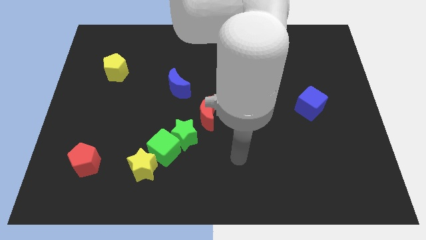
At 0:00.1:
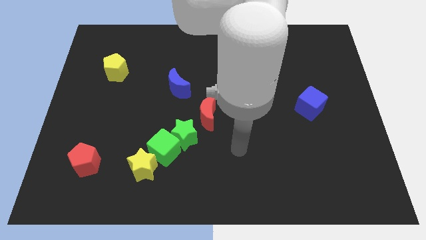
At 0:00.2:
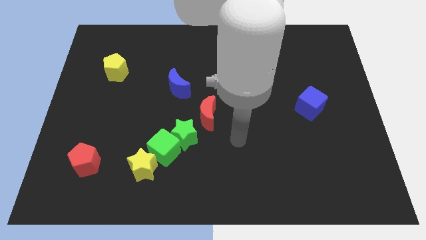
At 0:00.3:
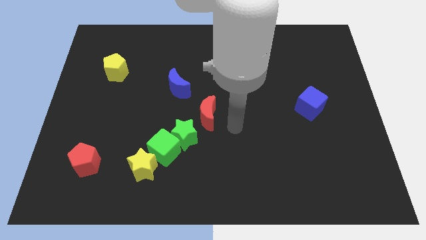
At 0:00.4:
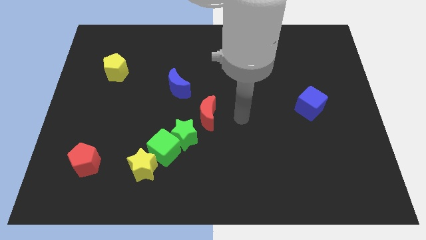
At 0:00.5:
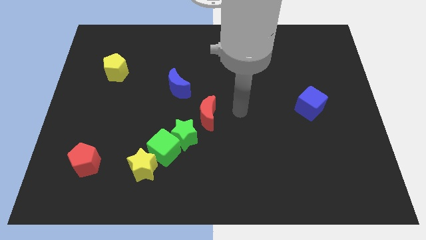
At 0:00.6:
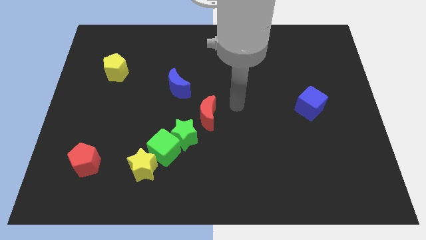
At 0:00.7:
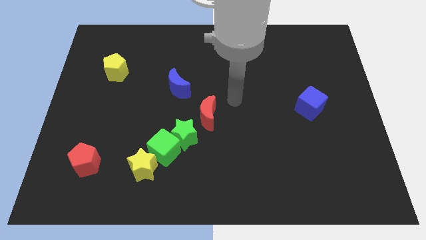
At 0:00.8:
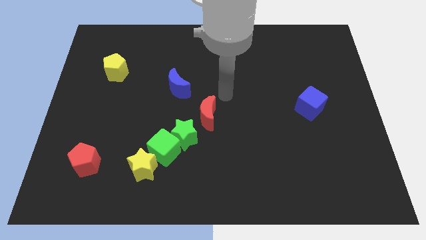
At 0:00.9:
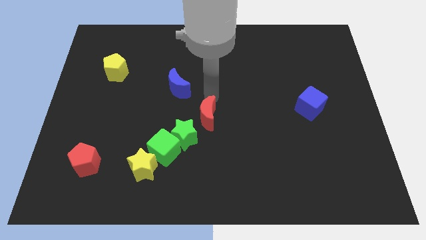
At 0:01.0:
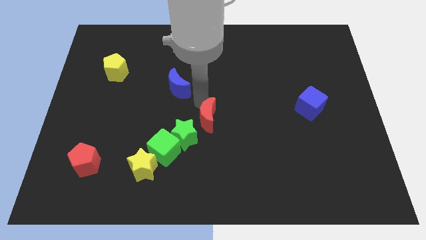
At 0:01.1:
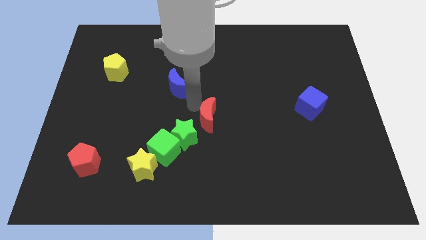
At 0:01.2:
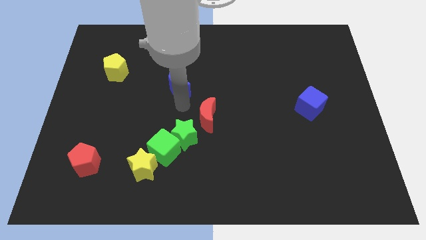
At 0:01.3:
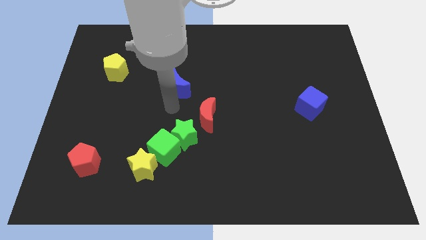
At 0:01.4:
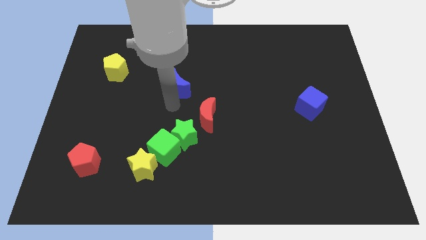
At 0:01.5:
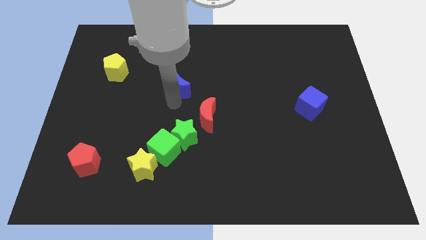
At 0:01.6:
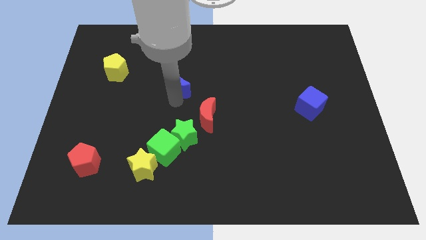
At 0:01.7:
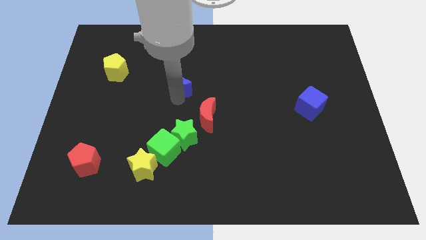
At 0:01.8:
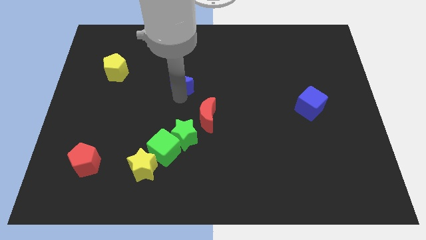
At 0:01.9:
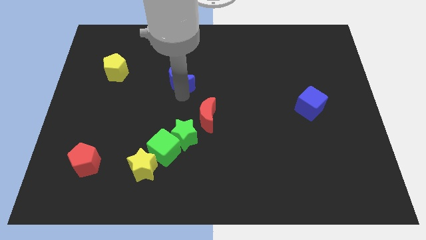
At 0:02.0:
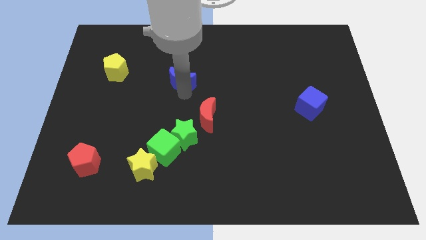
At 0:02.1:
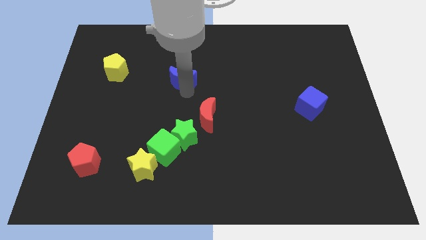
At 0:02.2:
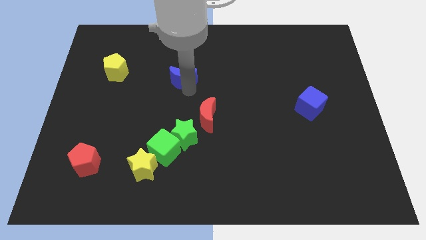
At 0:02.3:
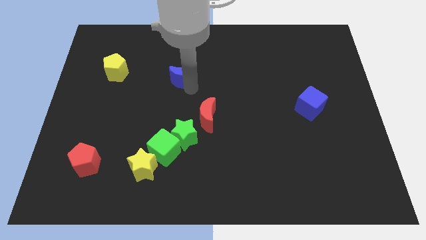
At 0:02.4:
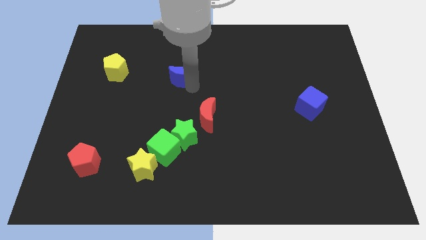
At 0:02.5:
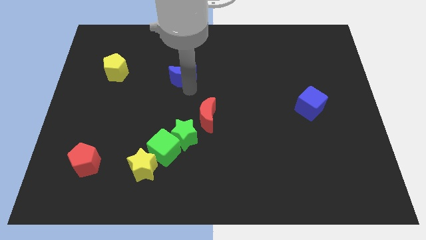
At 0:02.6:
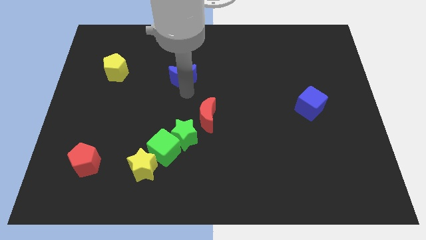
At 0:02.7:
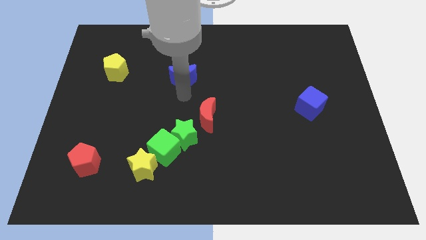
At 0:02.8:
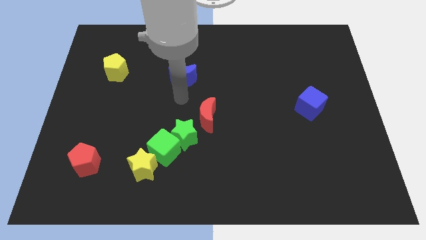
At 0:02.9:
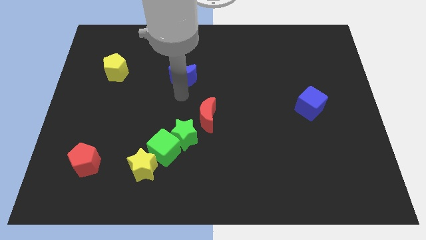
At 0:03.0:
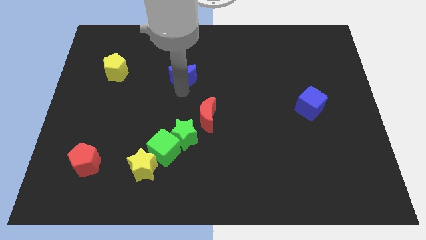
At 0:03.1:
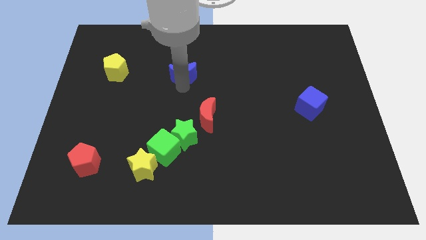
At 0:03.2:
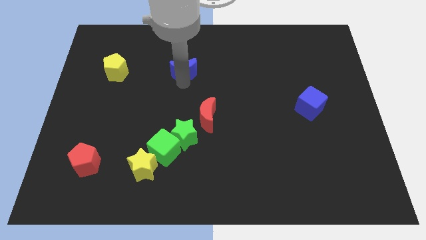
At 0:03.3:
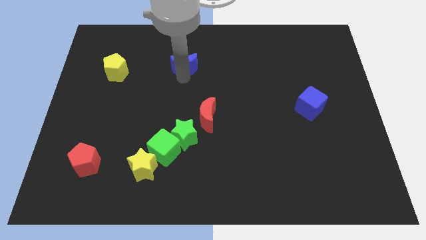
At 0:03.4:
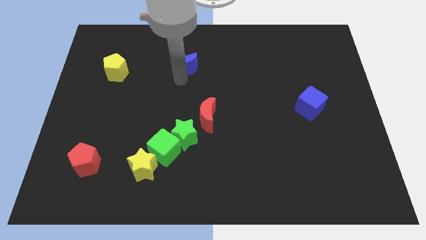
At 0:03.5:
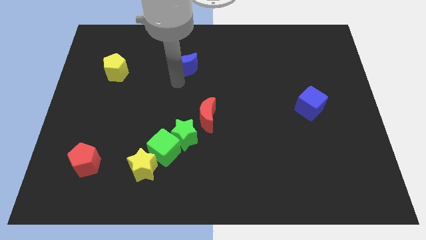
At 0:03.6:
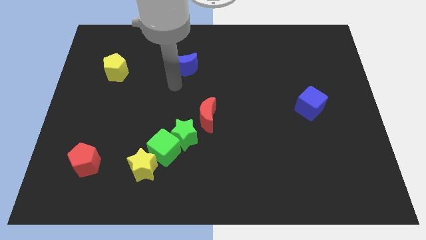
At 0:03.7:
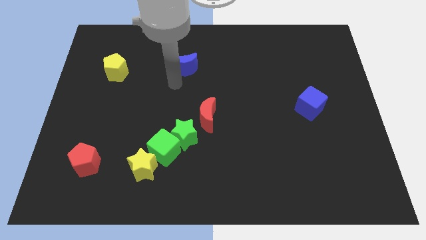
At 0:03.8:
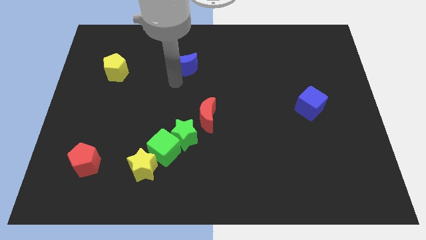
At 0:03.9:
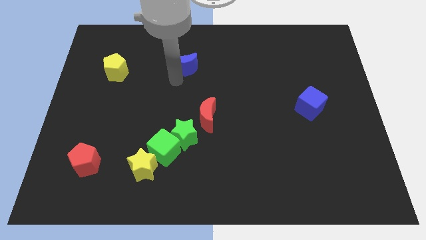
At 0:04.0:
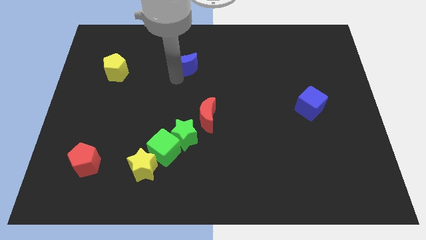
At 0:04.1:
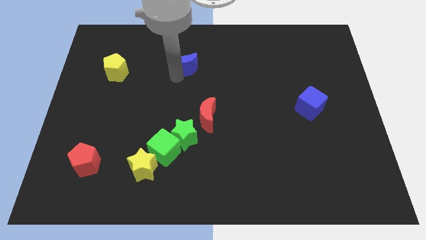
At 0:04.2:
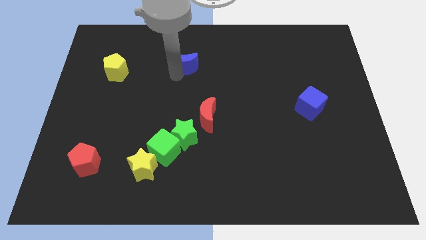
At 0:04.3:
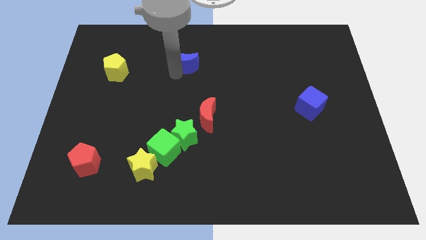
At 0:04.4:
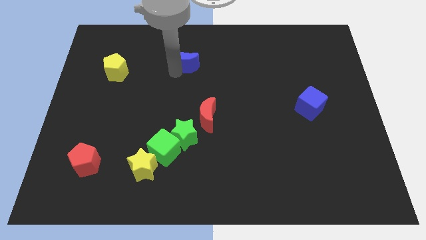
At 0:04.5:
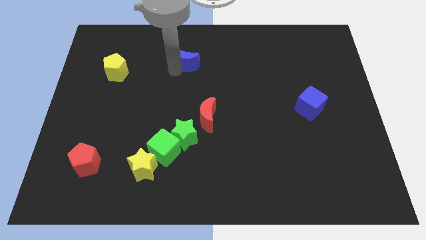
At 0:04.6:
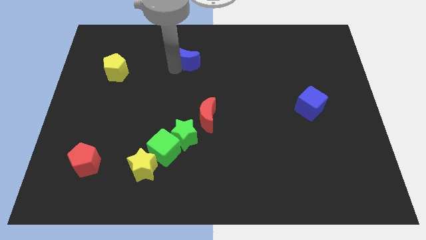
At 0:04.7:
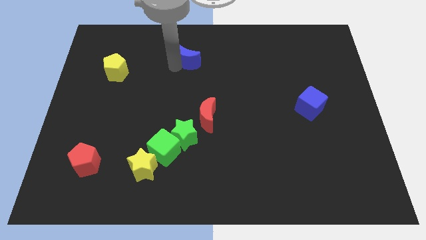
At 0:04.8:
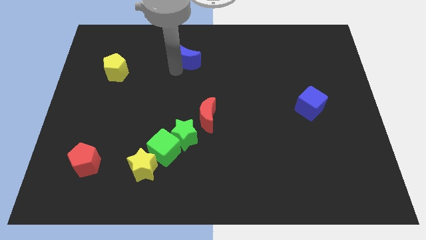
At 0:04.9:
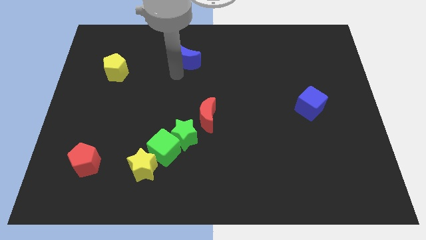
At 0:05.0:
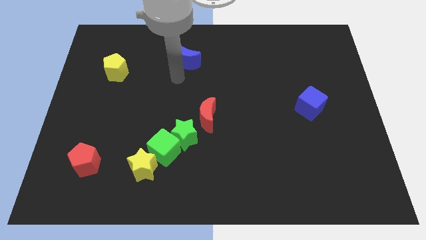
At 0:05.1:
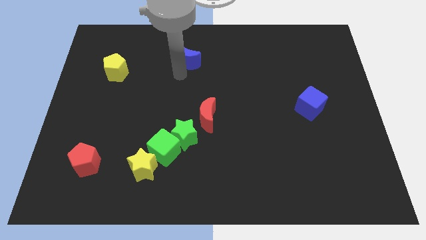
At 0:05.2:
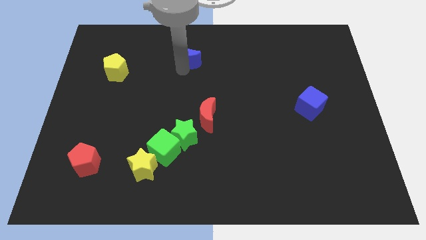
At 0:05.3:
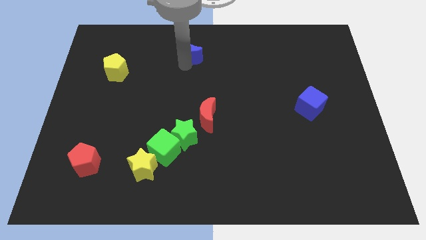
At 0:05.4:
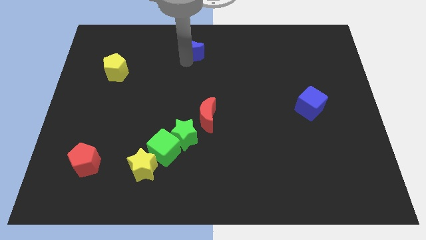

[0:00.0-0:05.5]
move the blue moon to the top

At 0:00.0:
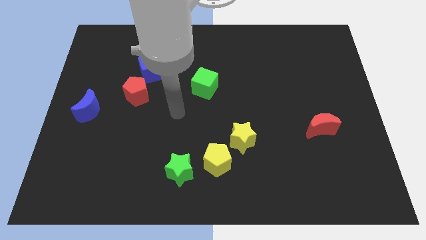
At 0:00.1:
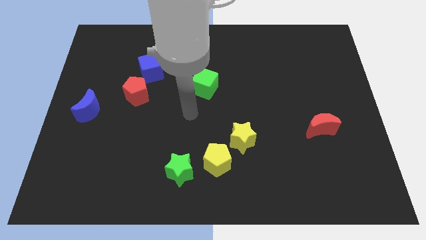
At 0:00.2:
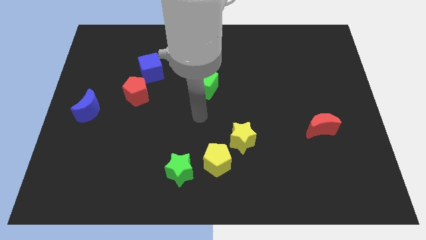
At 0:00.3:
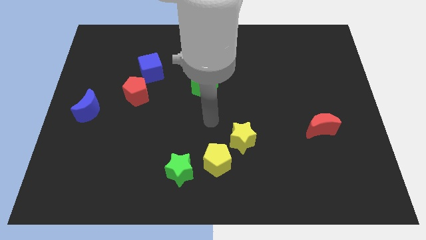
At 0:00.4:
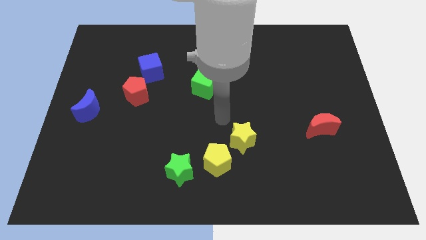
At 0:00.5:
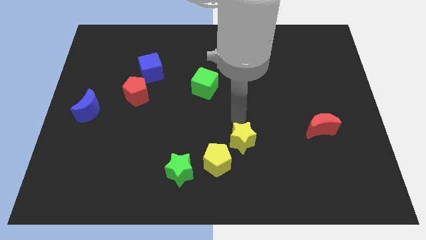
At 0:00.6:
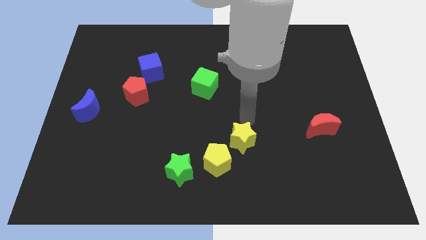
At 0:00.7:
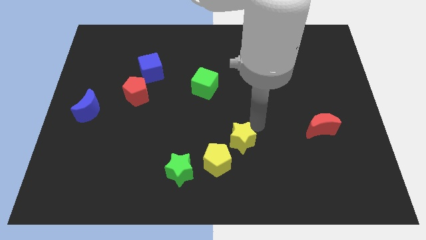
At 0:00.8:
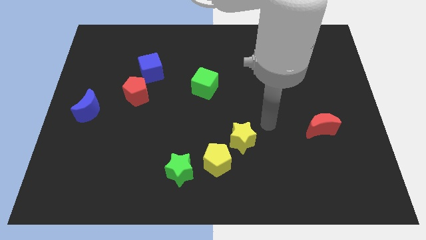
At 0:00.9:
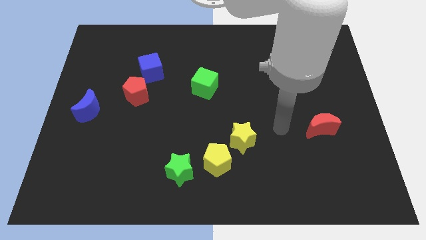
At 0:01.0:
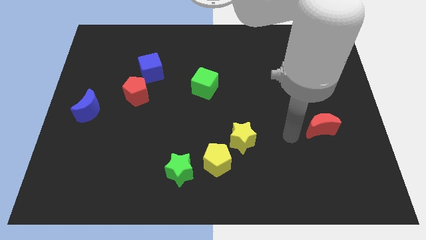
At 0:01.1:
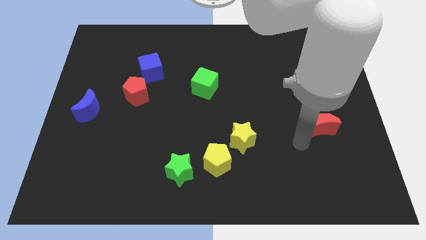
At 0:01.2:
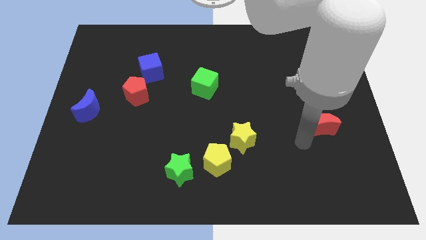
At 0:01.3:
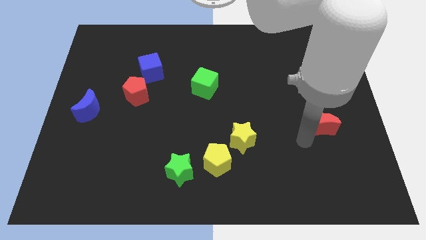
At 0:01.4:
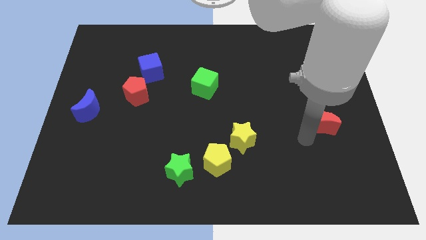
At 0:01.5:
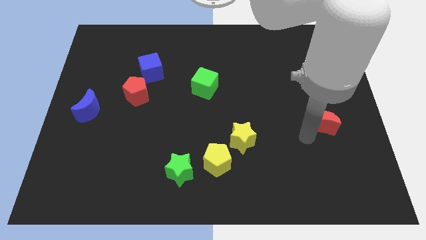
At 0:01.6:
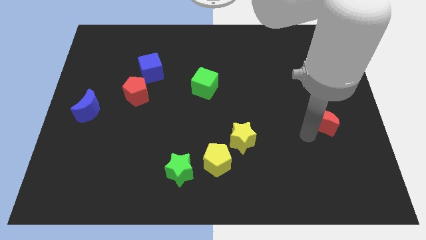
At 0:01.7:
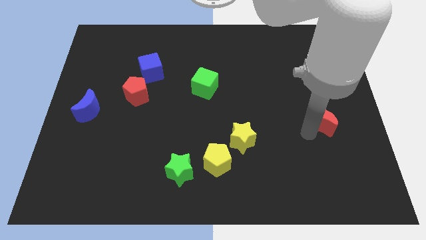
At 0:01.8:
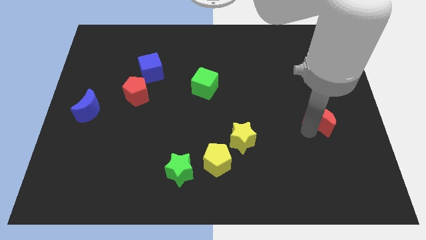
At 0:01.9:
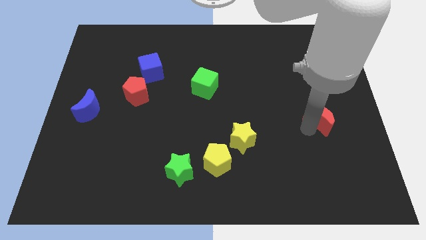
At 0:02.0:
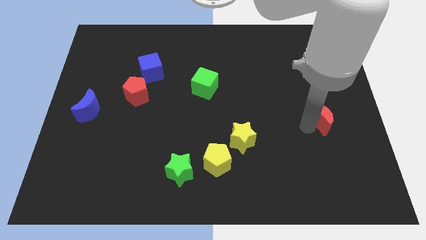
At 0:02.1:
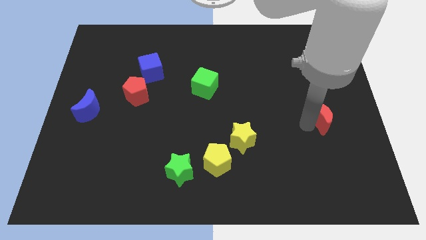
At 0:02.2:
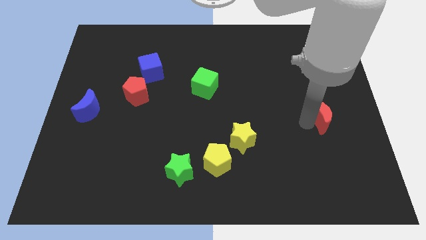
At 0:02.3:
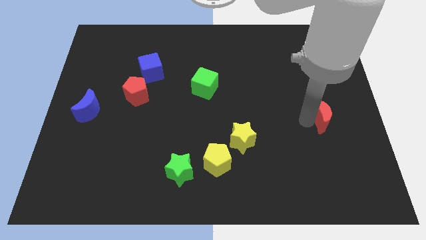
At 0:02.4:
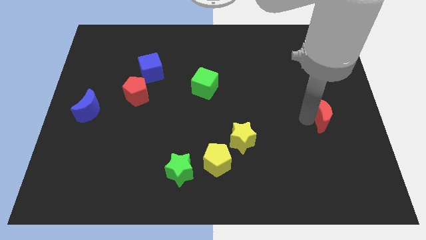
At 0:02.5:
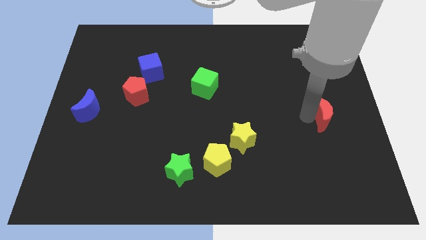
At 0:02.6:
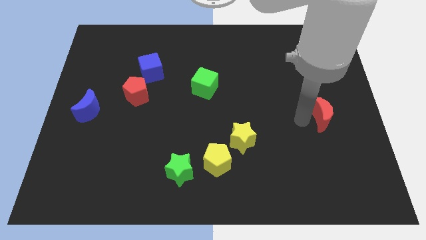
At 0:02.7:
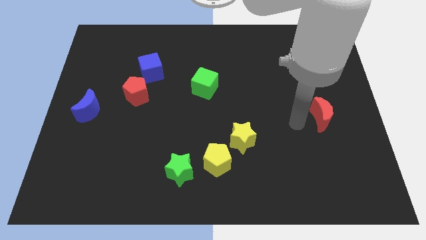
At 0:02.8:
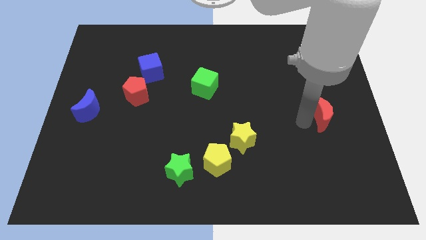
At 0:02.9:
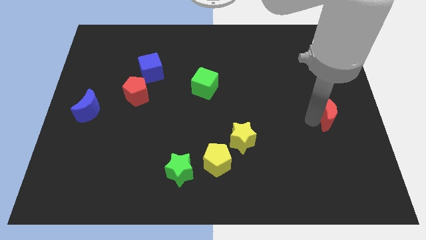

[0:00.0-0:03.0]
move the red moon to the right side of the board
